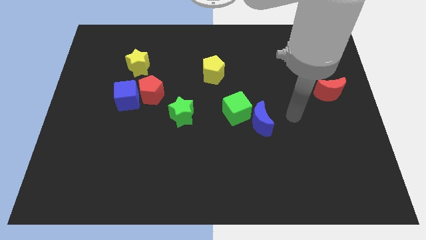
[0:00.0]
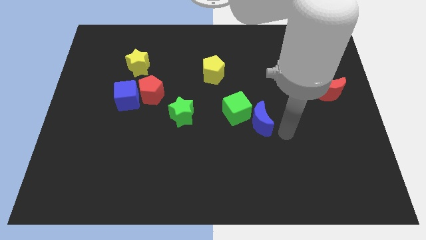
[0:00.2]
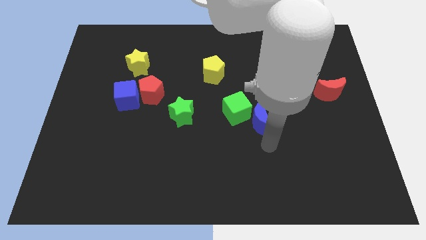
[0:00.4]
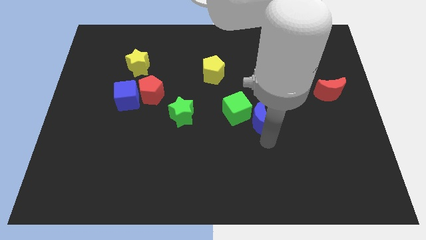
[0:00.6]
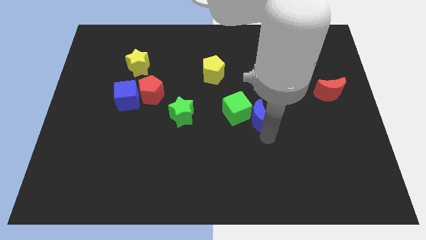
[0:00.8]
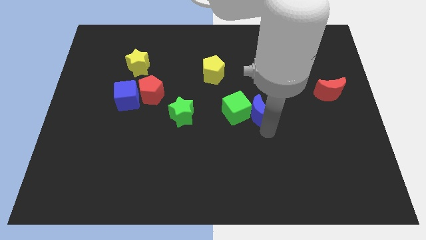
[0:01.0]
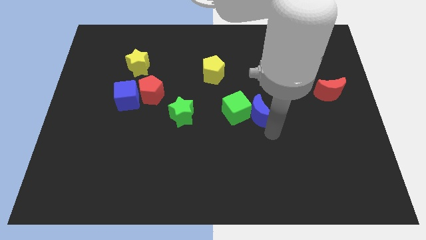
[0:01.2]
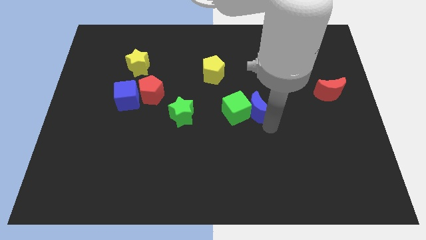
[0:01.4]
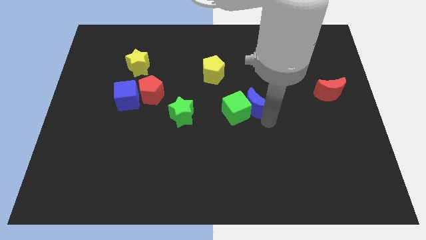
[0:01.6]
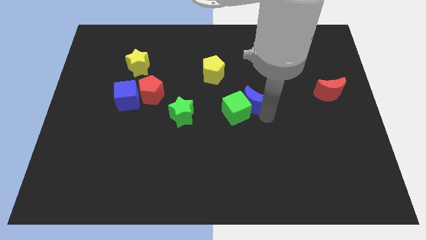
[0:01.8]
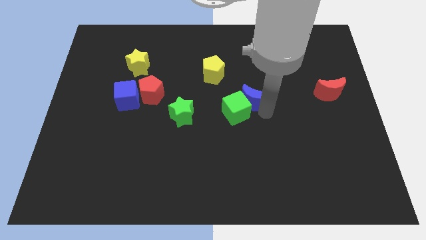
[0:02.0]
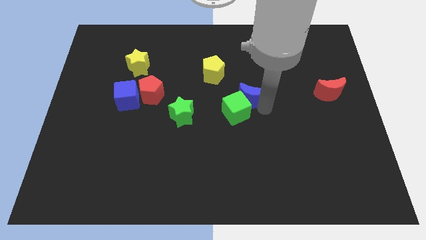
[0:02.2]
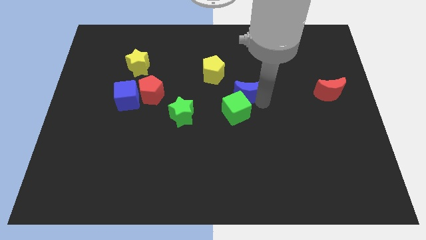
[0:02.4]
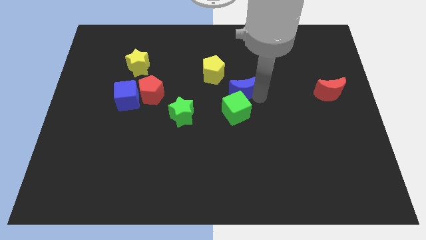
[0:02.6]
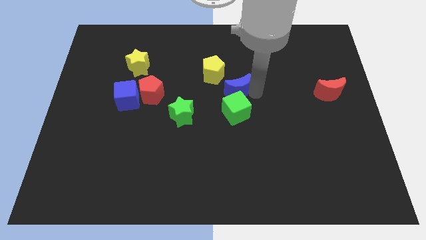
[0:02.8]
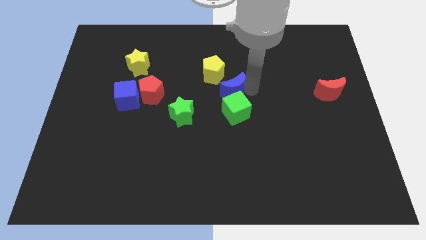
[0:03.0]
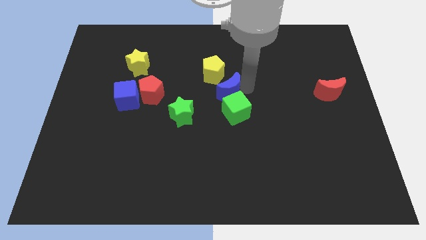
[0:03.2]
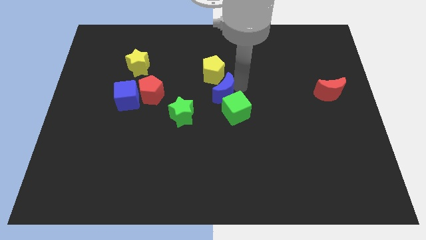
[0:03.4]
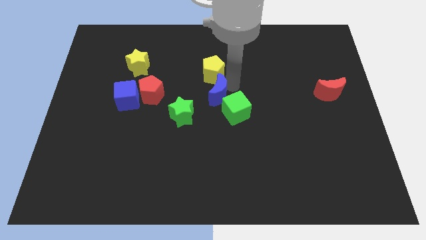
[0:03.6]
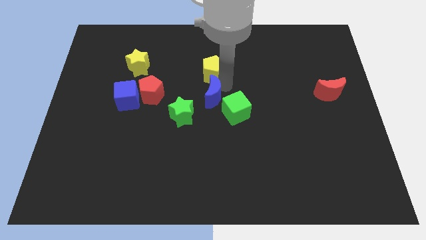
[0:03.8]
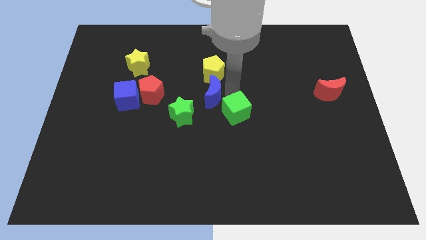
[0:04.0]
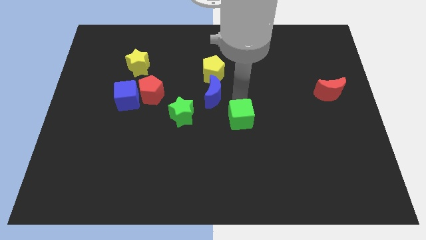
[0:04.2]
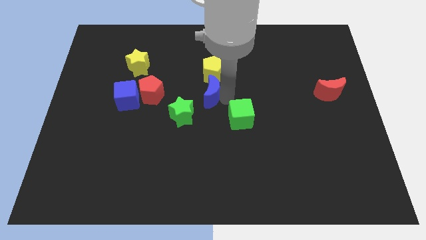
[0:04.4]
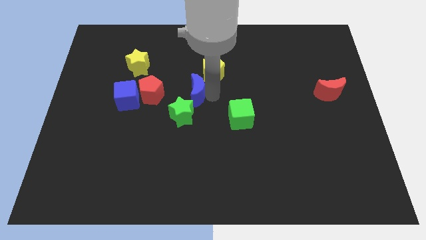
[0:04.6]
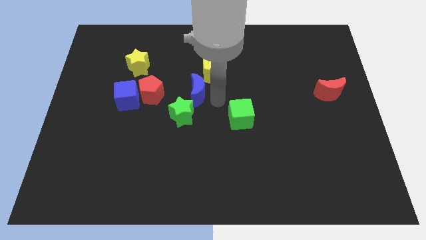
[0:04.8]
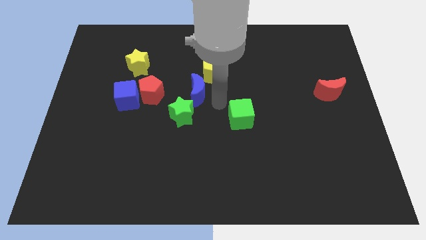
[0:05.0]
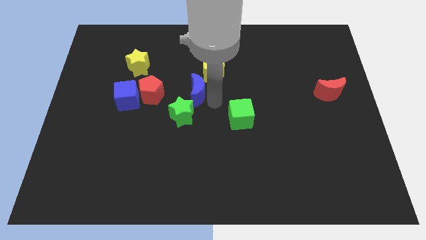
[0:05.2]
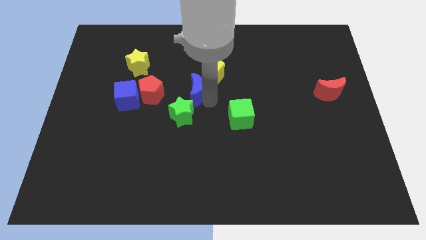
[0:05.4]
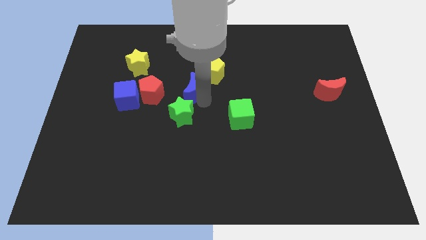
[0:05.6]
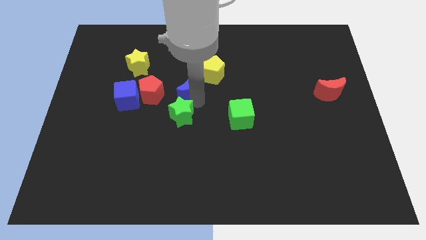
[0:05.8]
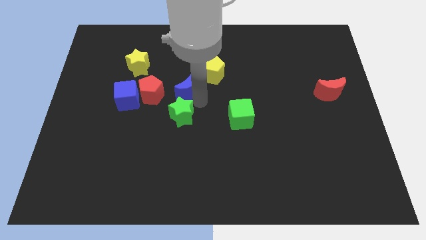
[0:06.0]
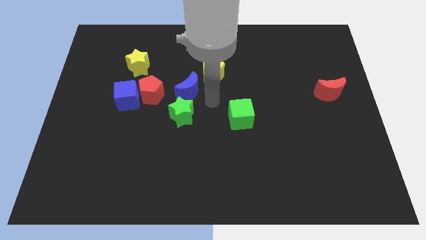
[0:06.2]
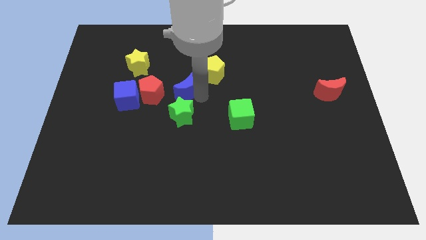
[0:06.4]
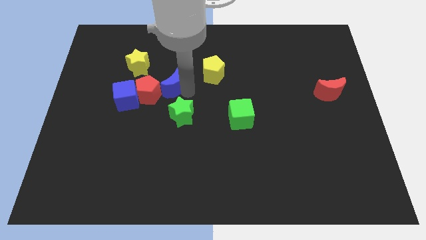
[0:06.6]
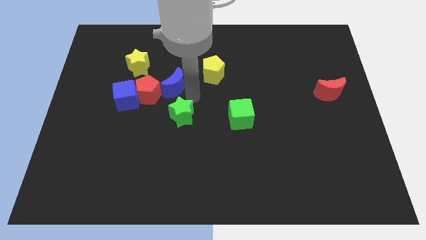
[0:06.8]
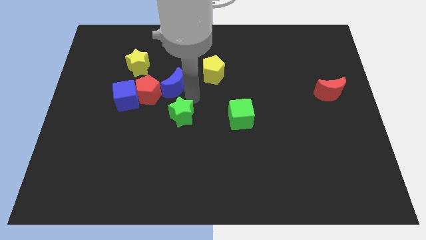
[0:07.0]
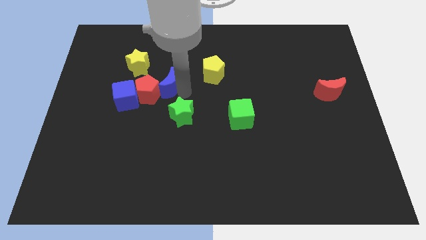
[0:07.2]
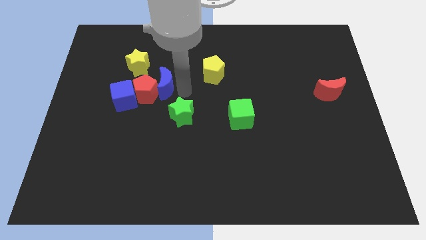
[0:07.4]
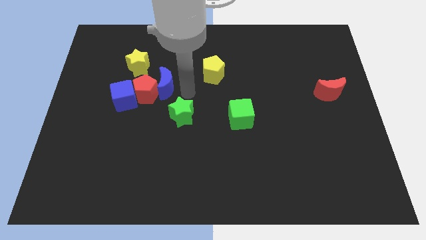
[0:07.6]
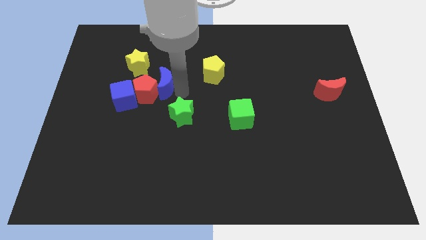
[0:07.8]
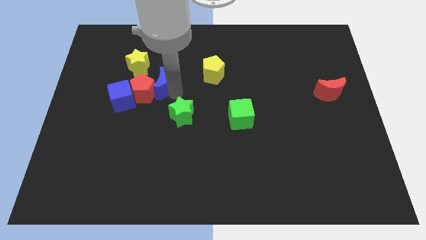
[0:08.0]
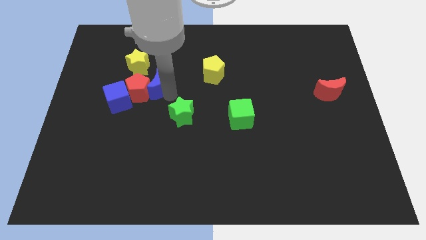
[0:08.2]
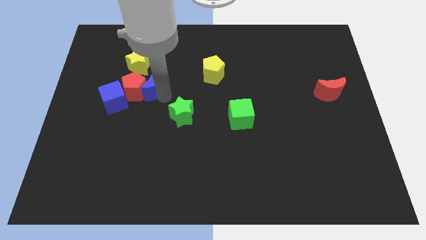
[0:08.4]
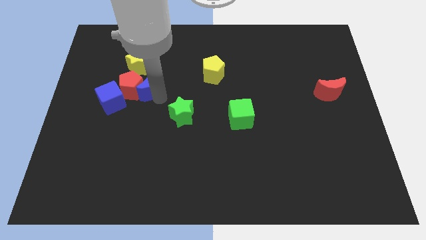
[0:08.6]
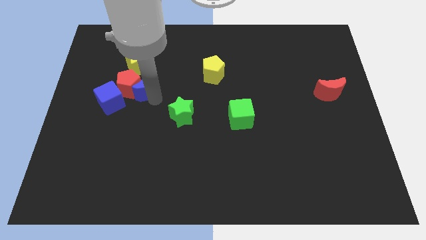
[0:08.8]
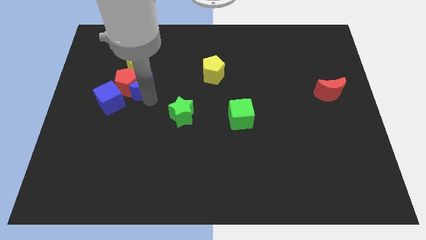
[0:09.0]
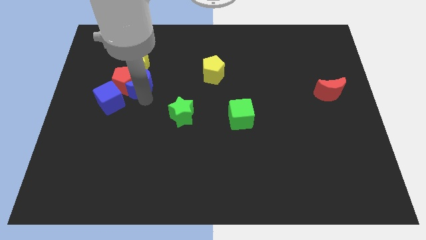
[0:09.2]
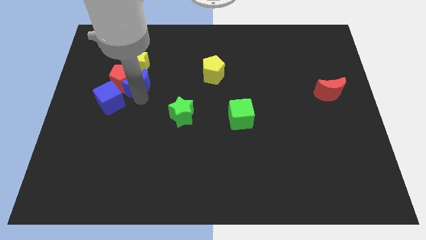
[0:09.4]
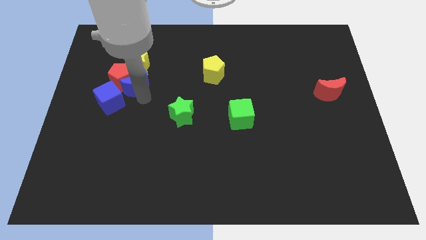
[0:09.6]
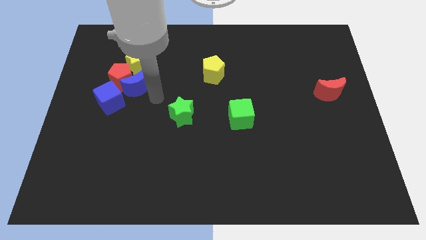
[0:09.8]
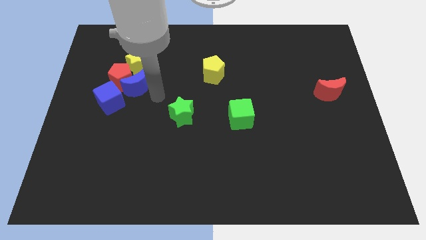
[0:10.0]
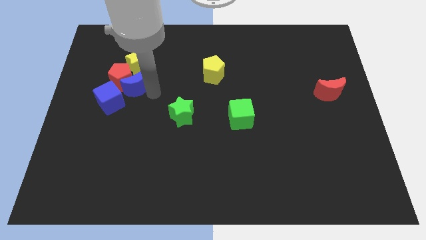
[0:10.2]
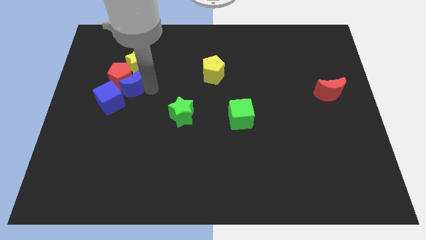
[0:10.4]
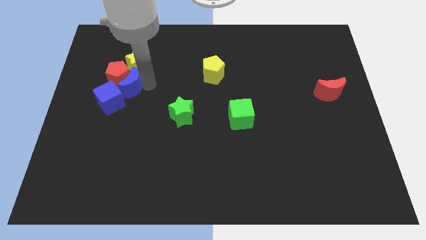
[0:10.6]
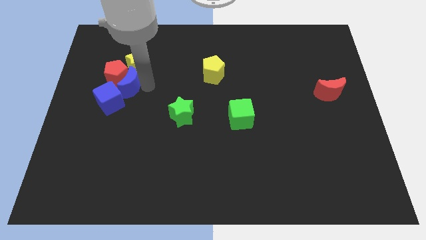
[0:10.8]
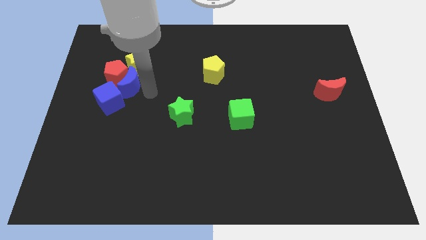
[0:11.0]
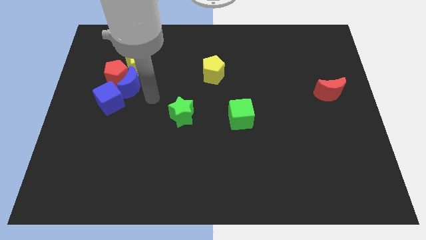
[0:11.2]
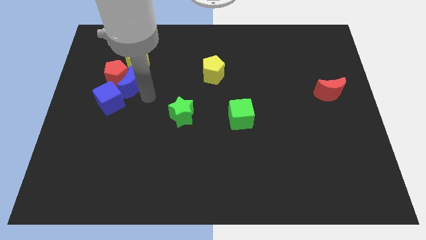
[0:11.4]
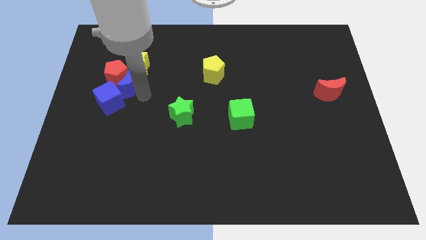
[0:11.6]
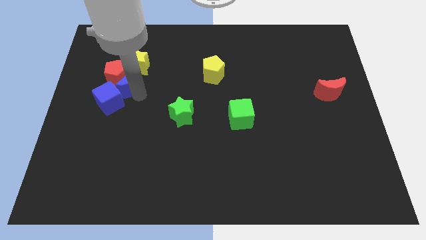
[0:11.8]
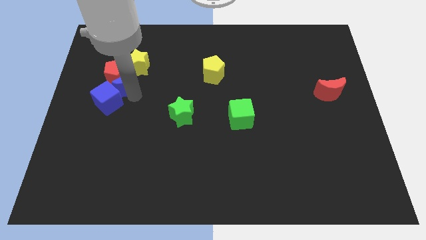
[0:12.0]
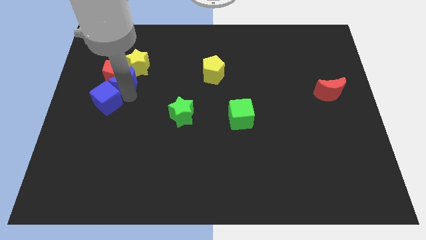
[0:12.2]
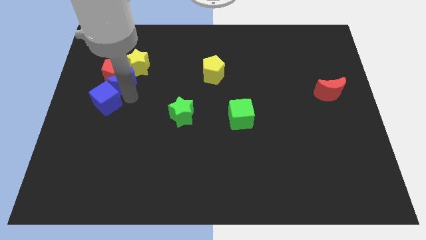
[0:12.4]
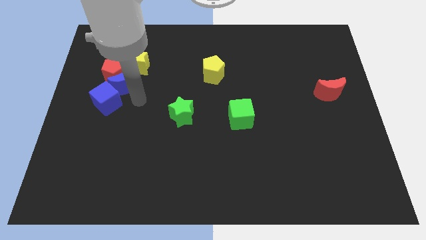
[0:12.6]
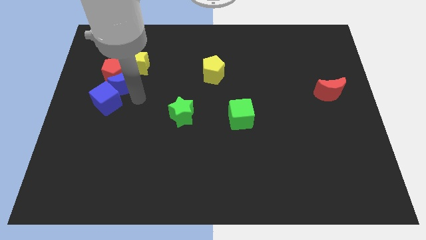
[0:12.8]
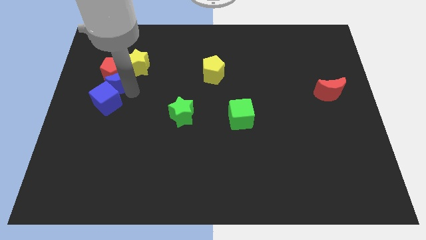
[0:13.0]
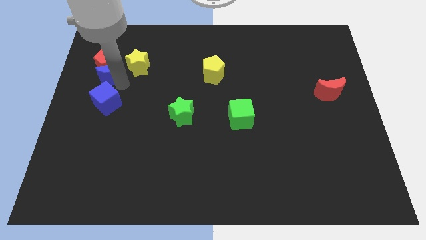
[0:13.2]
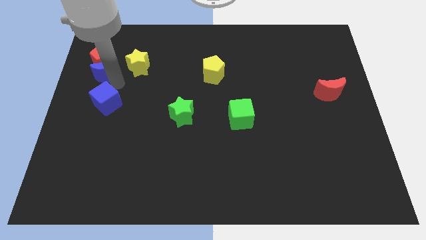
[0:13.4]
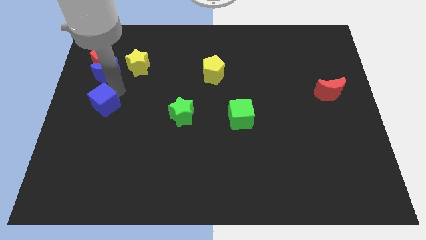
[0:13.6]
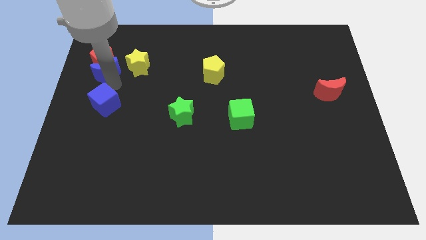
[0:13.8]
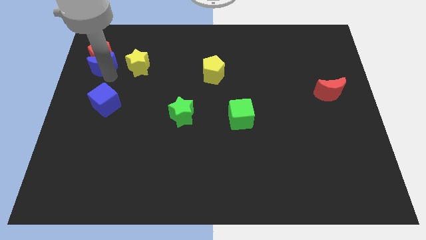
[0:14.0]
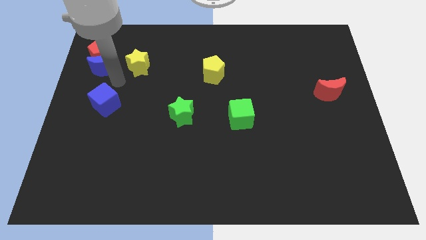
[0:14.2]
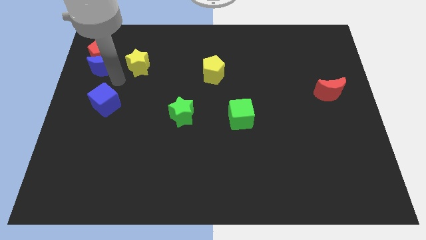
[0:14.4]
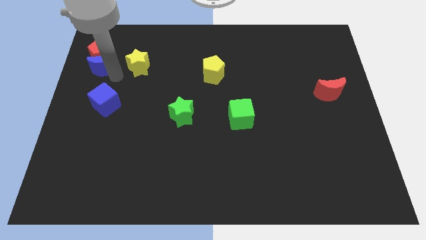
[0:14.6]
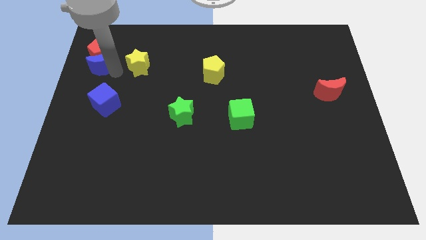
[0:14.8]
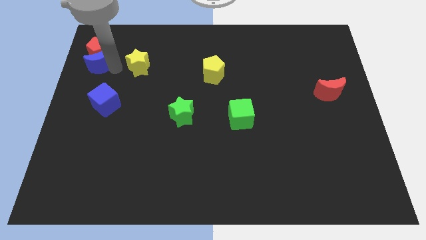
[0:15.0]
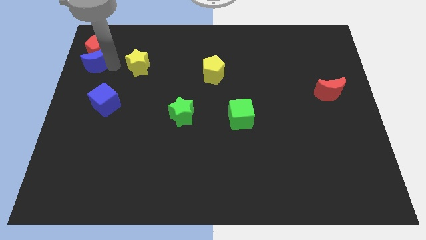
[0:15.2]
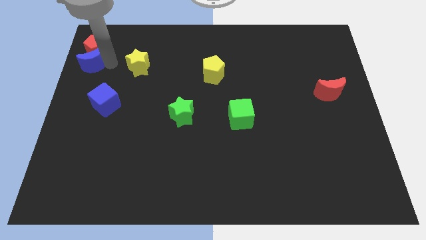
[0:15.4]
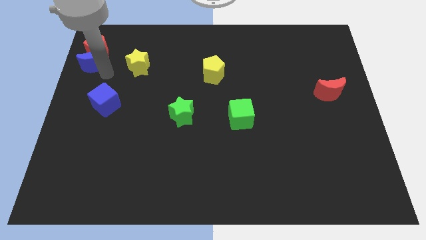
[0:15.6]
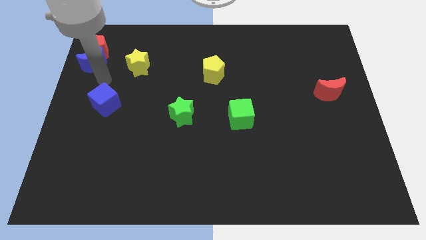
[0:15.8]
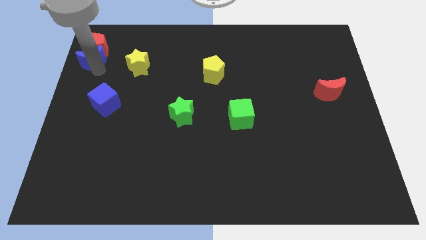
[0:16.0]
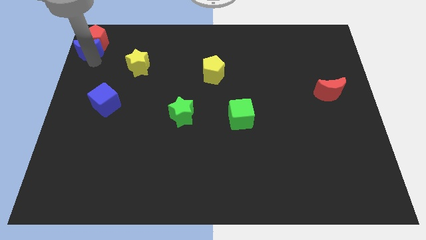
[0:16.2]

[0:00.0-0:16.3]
put the blue moon to the top left
